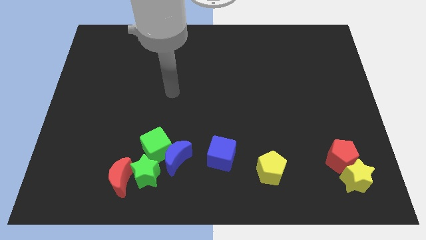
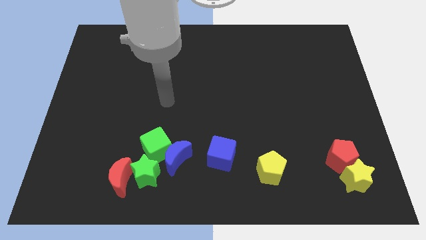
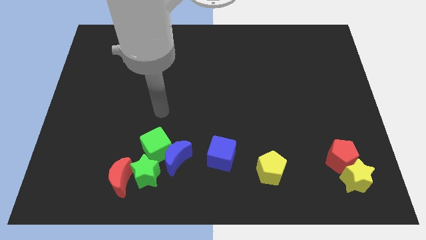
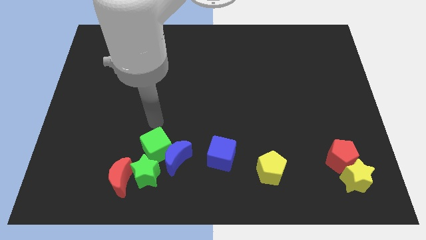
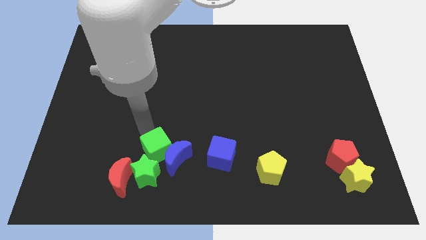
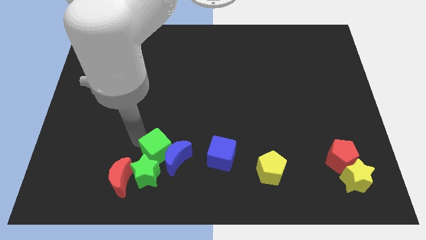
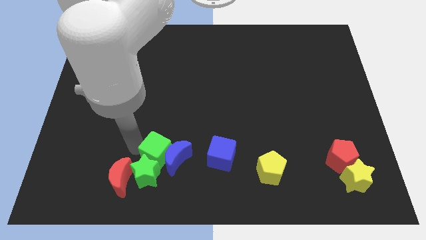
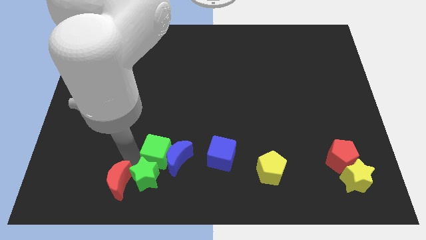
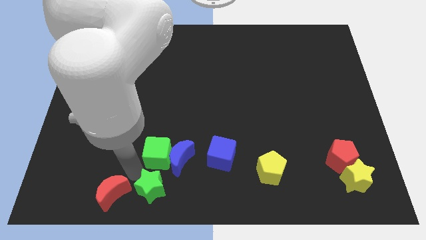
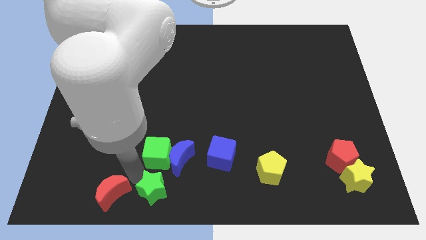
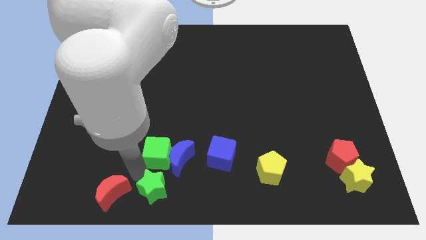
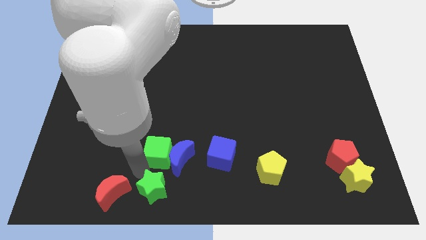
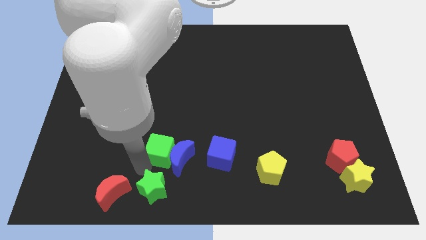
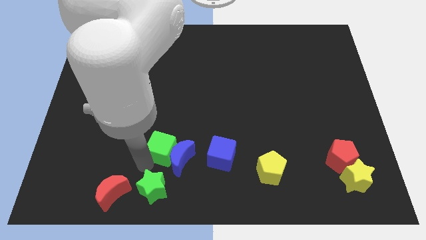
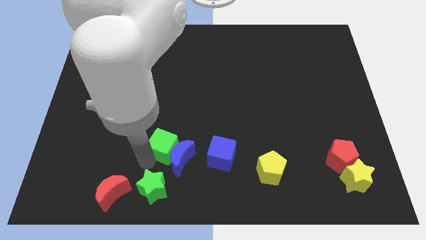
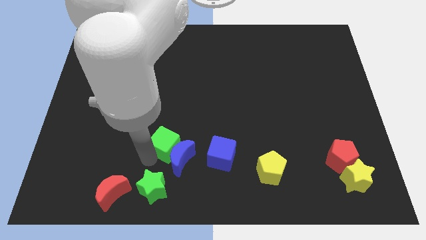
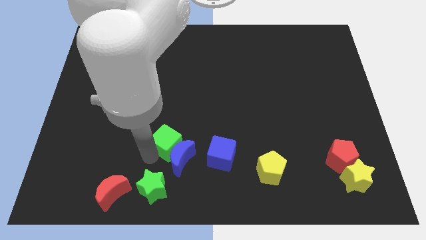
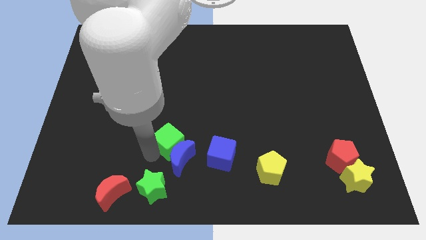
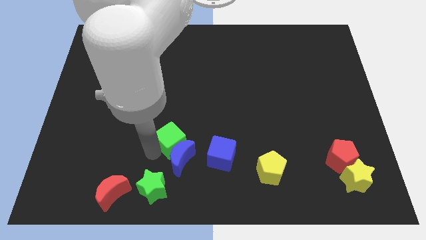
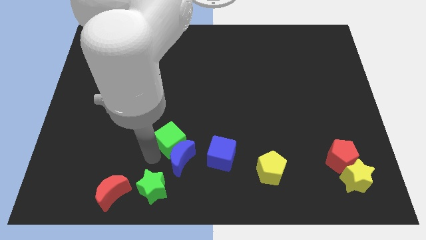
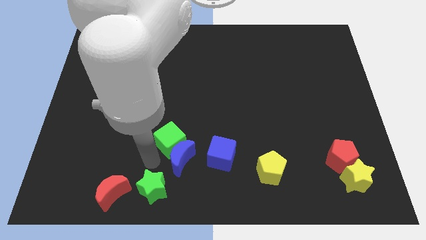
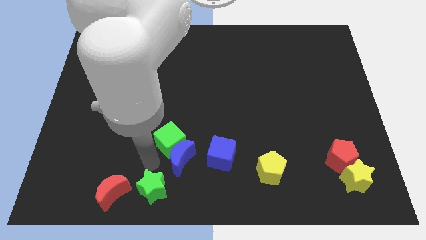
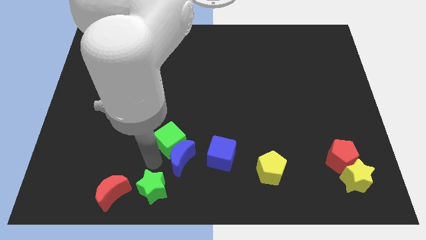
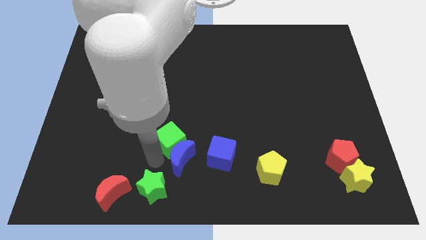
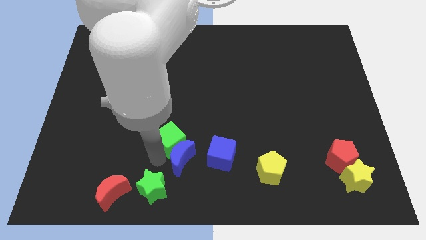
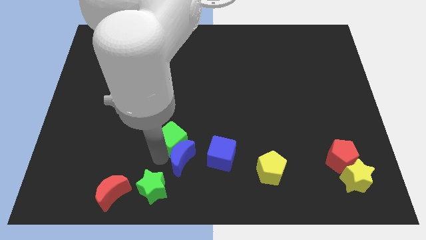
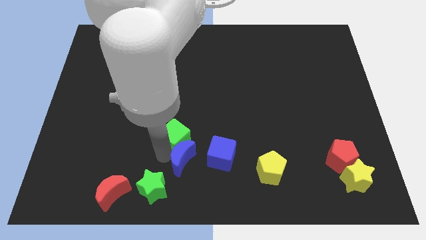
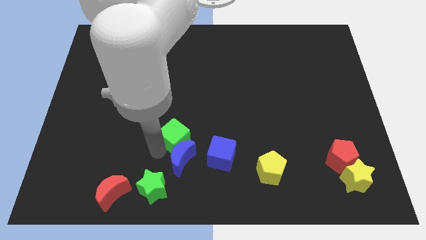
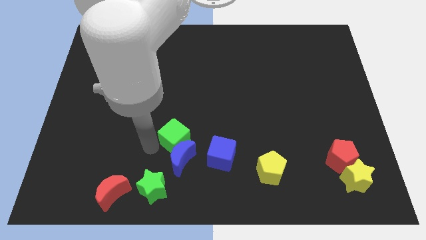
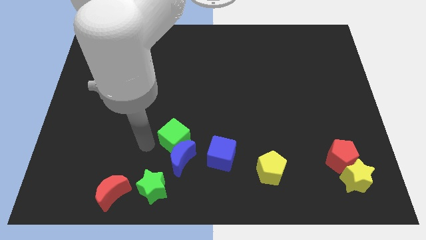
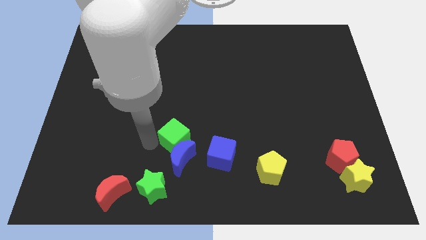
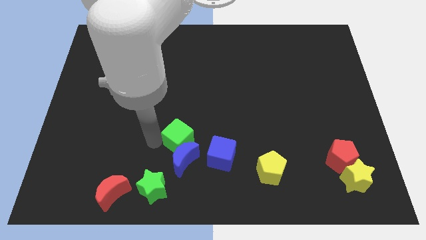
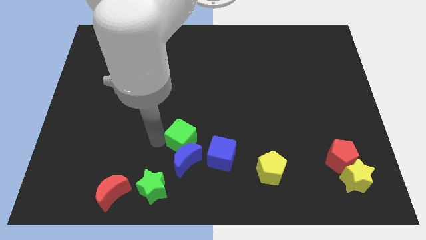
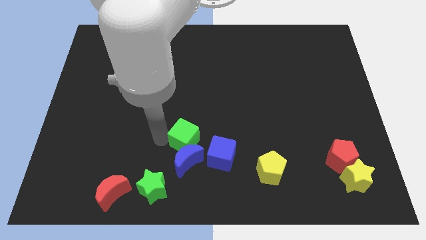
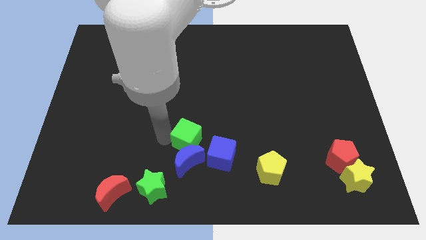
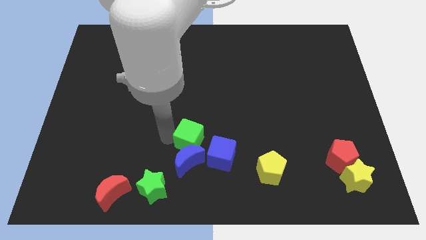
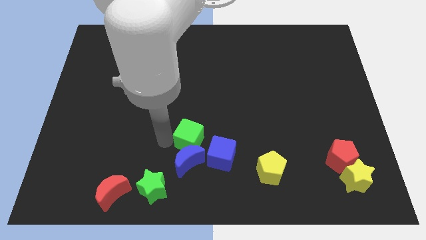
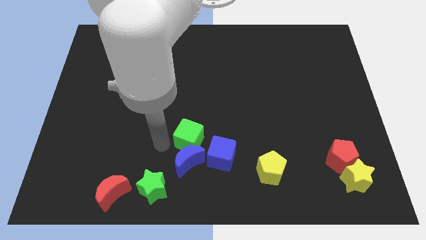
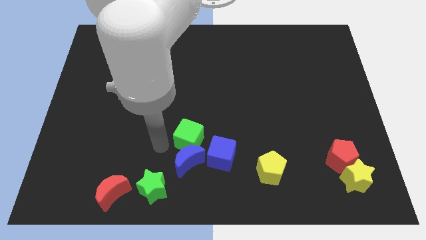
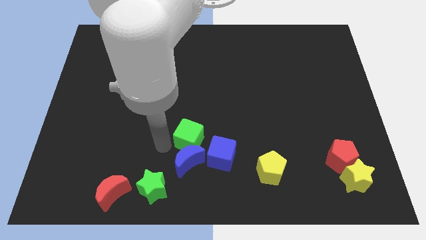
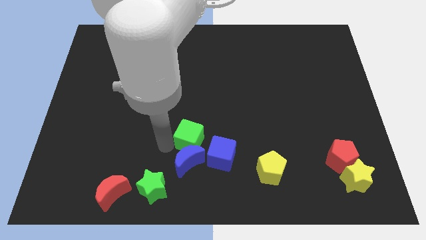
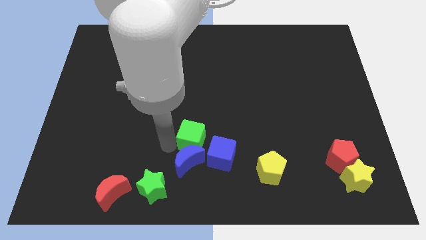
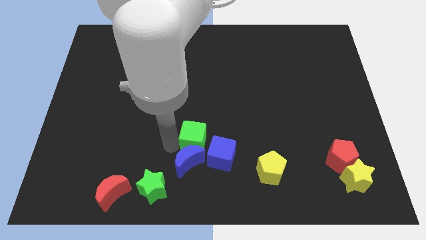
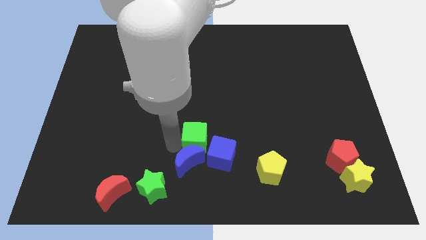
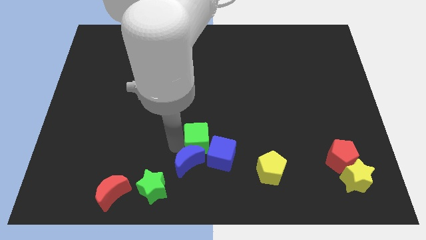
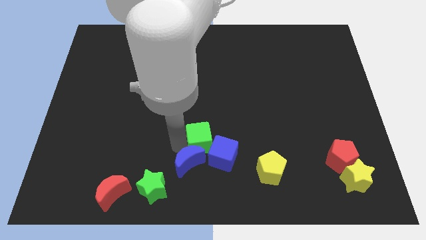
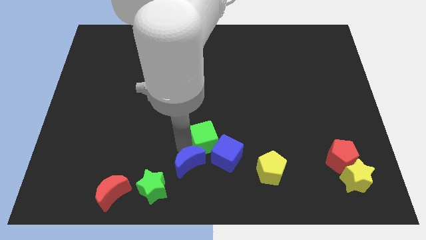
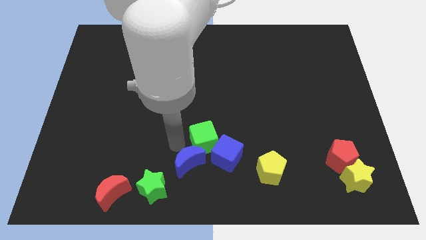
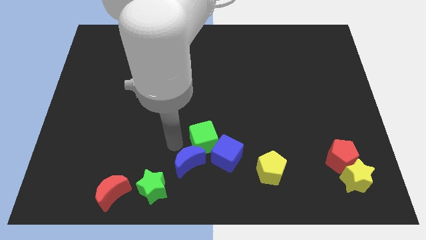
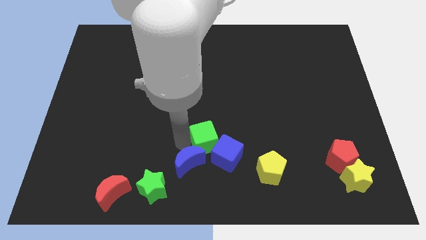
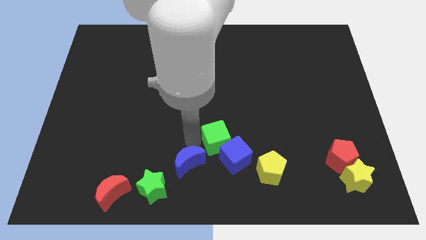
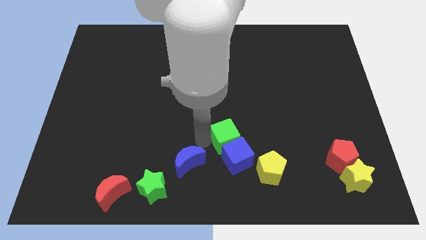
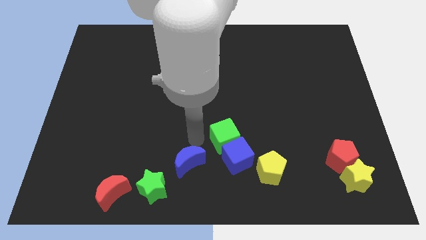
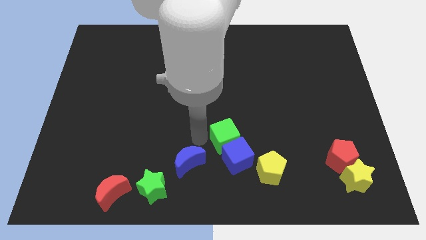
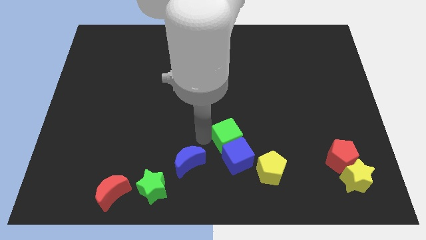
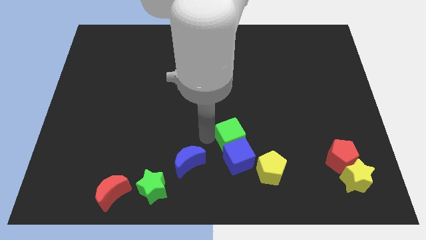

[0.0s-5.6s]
slide the green cube to the top right side of the blue cube

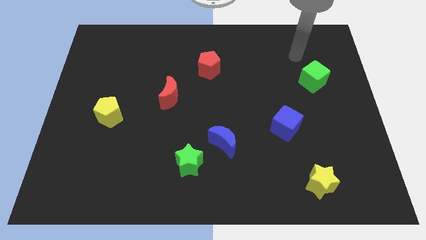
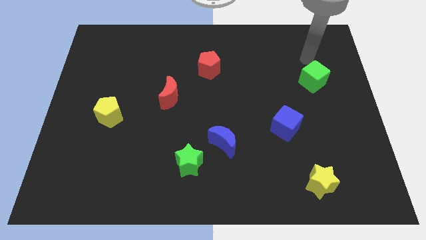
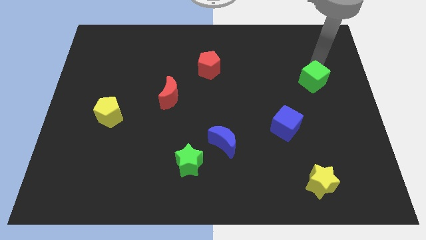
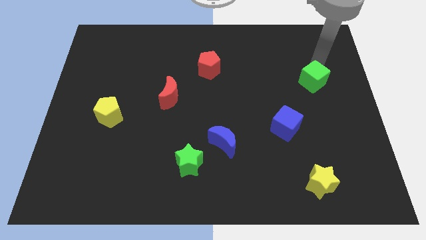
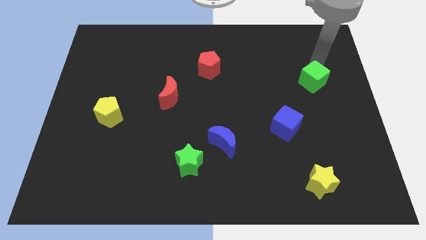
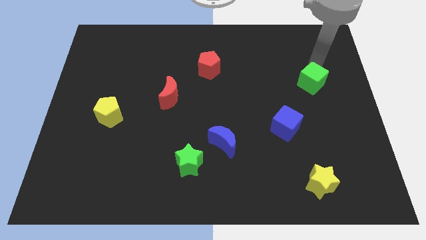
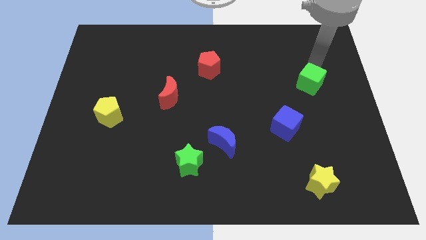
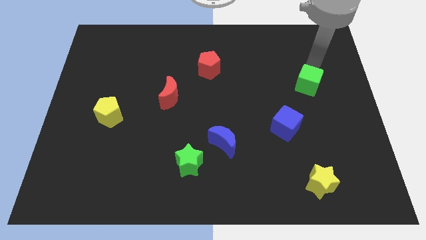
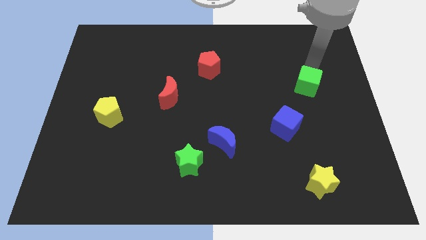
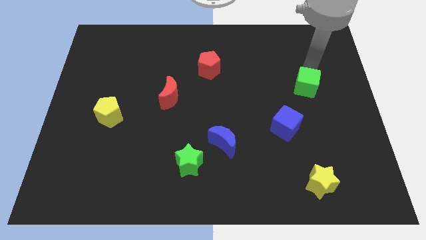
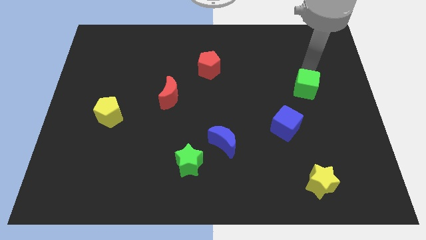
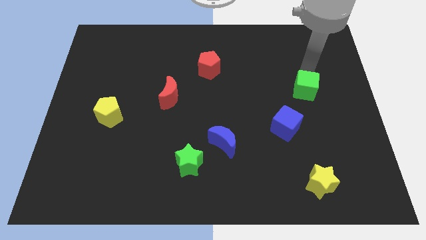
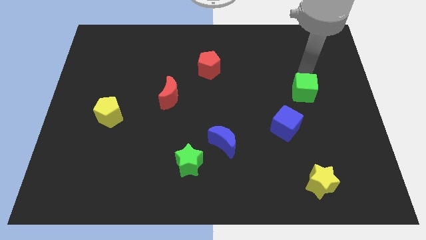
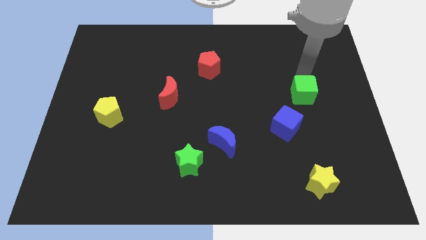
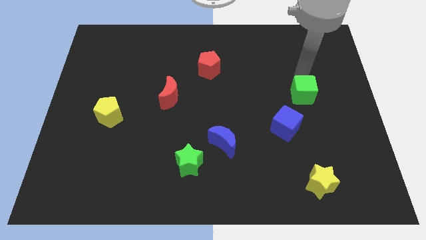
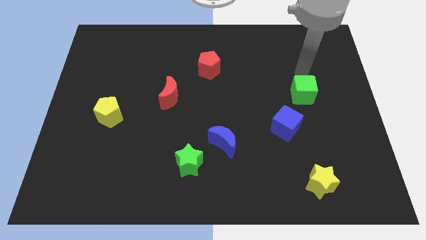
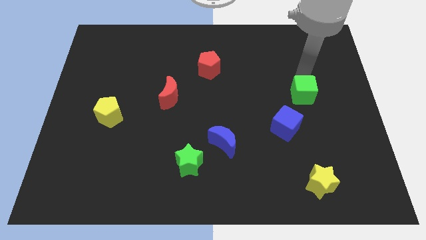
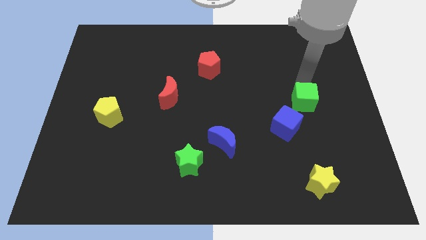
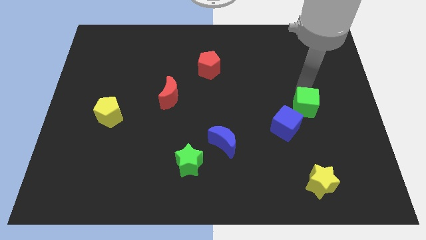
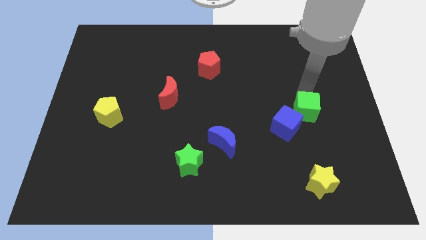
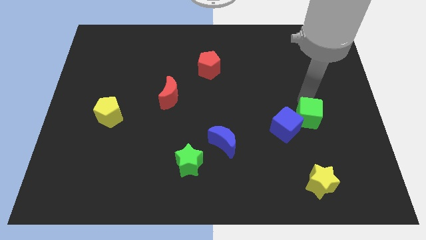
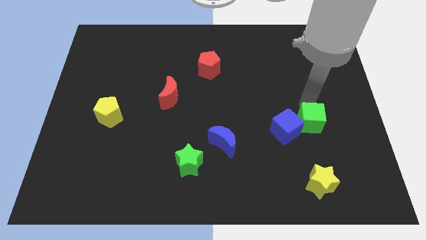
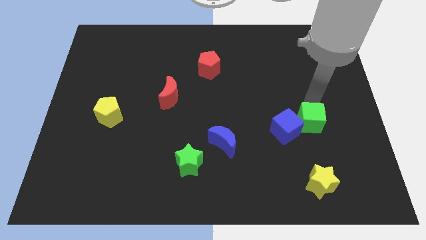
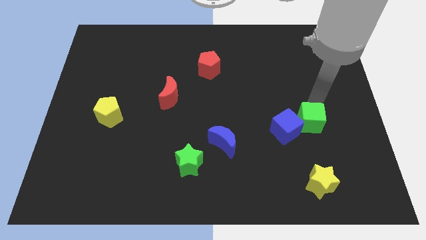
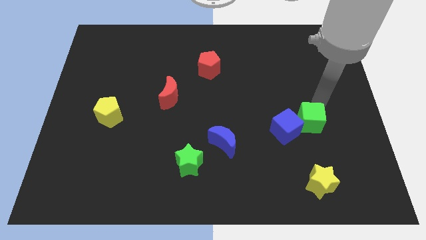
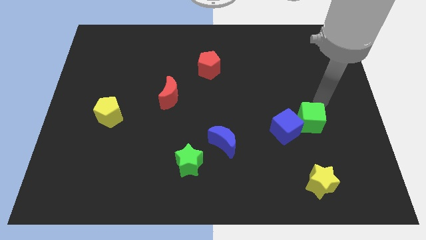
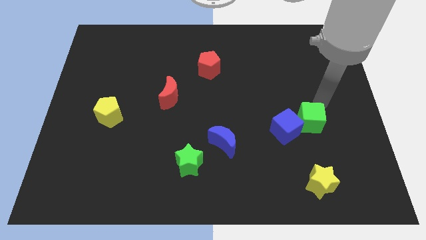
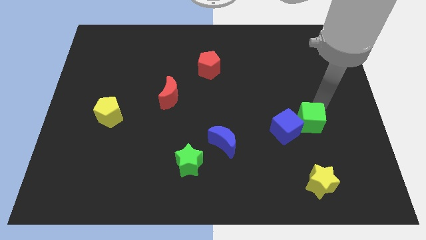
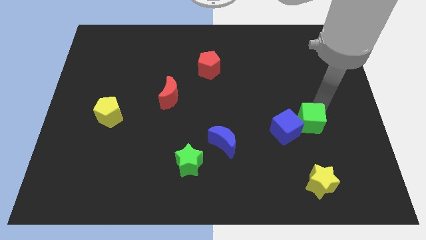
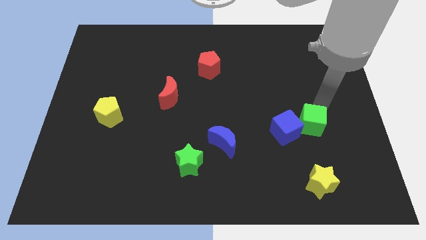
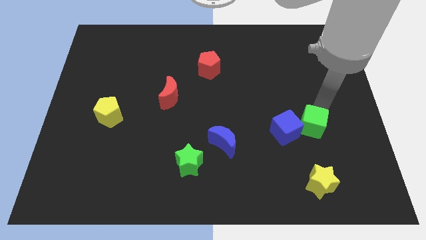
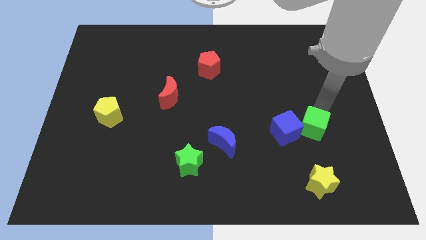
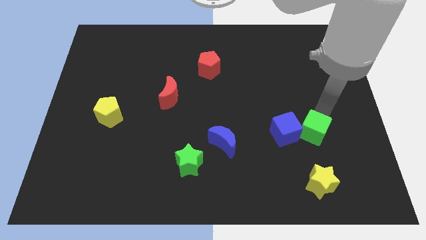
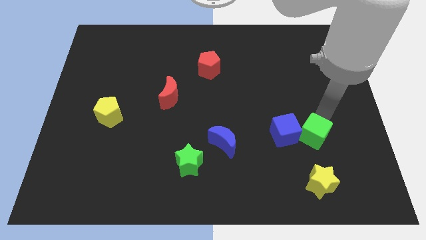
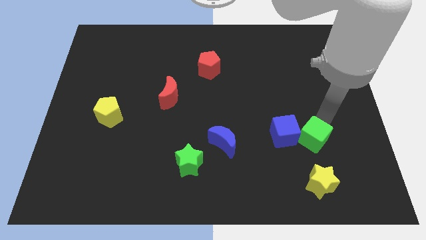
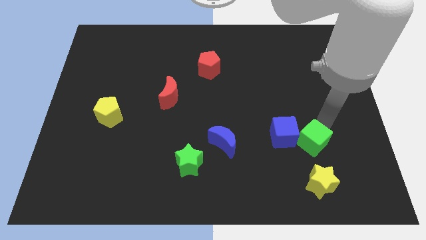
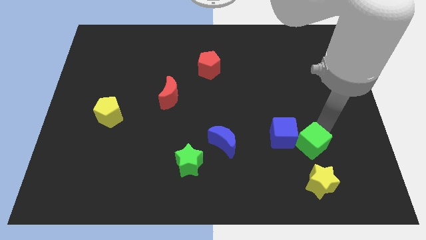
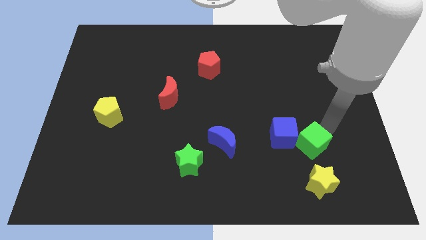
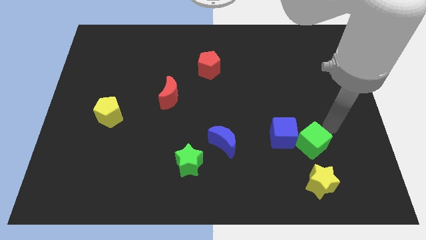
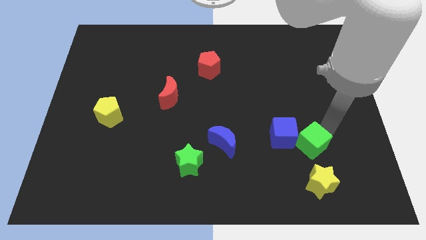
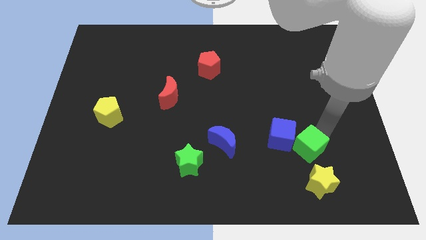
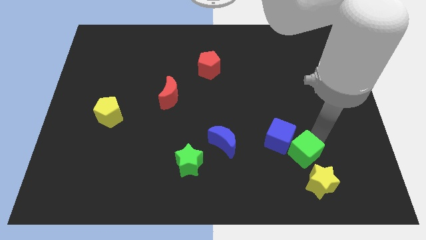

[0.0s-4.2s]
slide the green cube diagonally up and to the left of the yellow star
